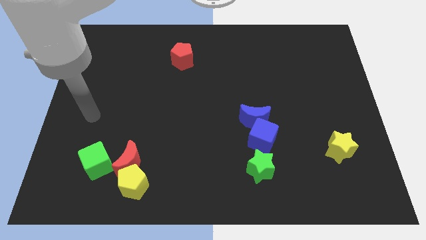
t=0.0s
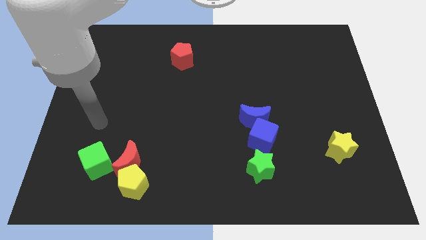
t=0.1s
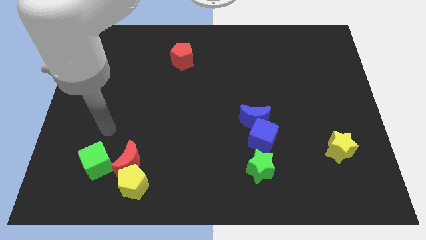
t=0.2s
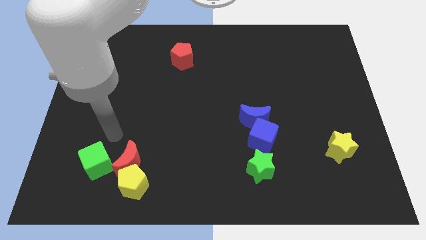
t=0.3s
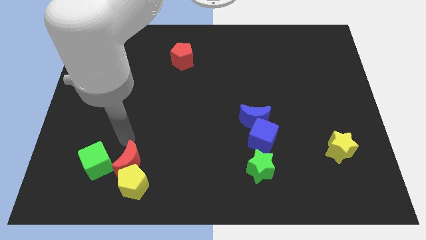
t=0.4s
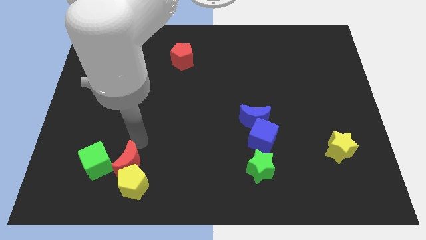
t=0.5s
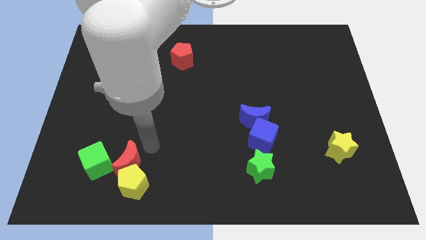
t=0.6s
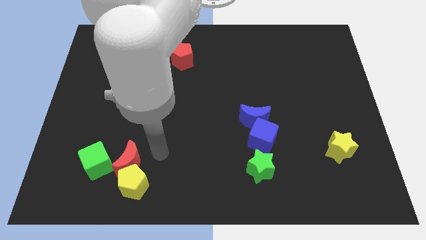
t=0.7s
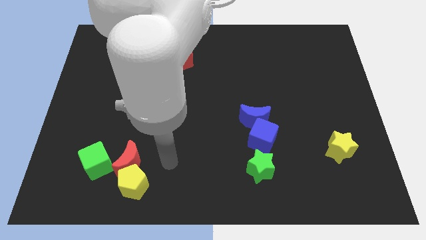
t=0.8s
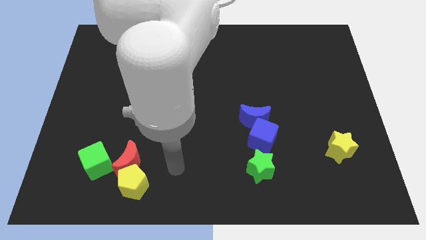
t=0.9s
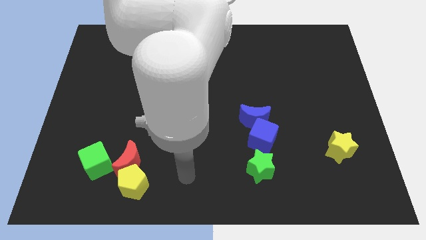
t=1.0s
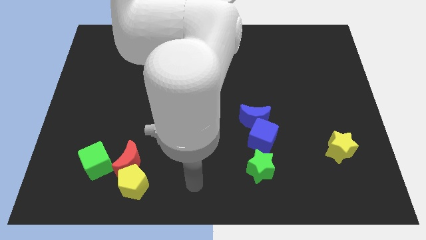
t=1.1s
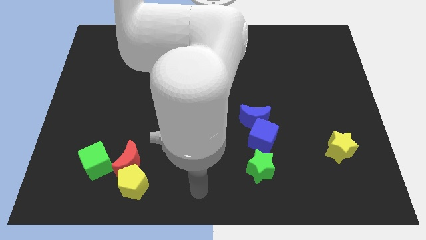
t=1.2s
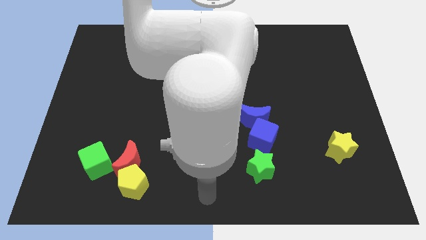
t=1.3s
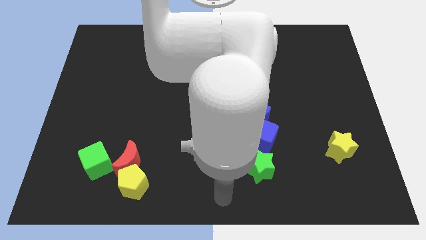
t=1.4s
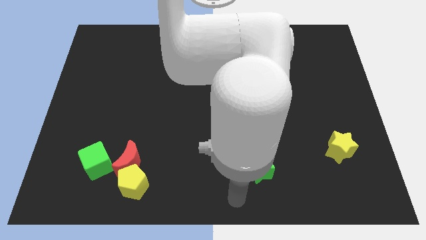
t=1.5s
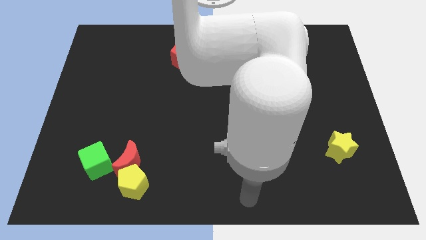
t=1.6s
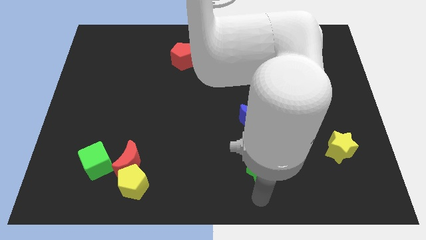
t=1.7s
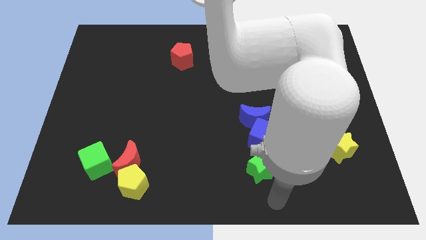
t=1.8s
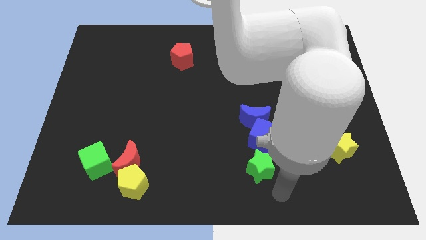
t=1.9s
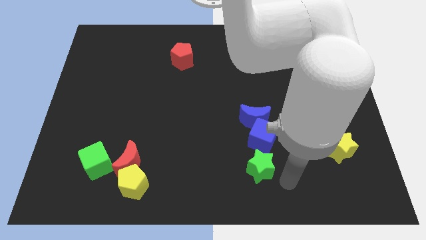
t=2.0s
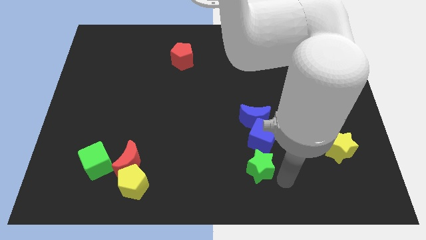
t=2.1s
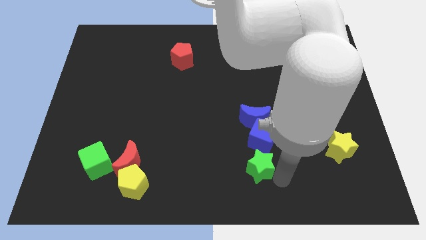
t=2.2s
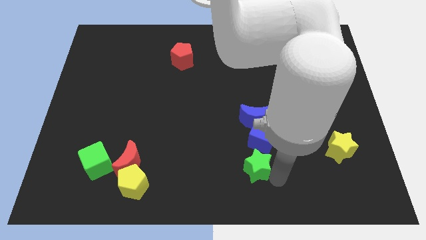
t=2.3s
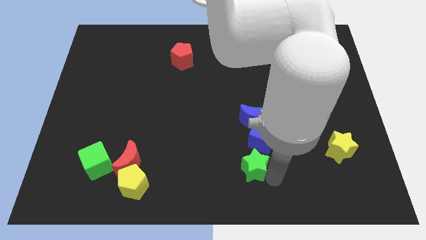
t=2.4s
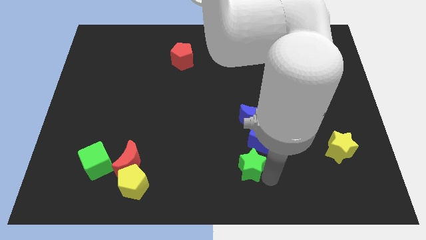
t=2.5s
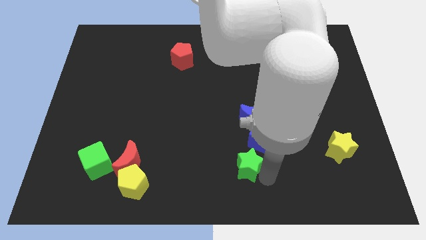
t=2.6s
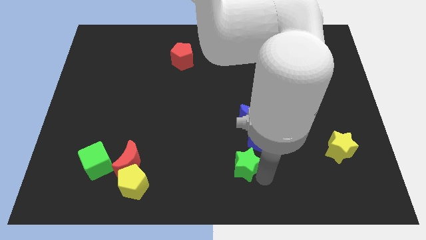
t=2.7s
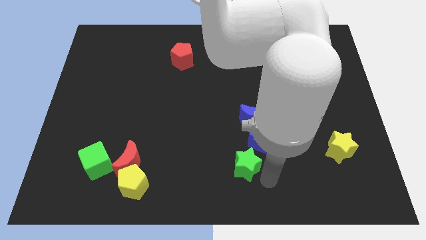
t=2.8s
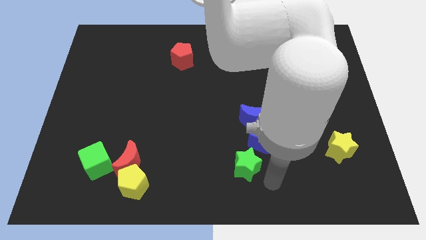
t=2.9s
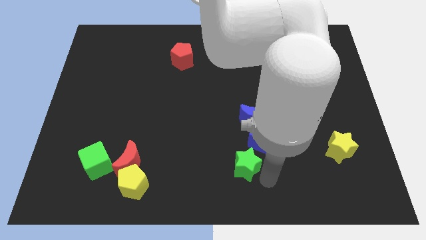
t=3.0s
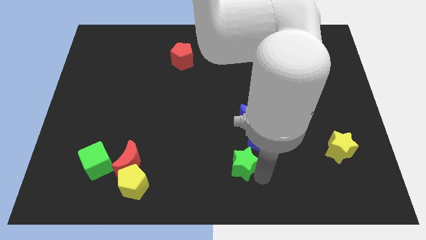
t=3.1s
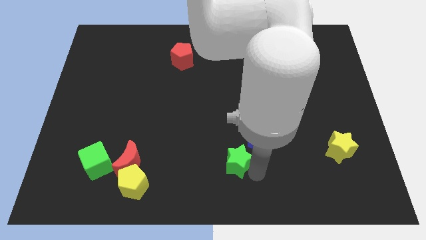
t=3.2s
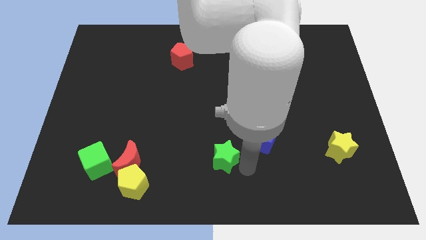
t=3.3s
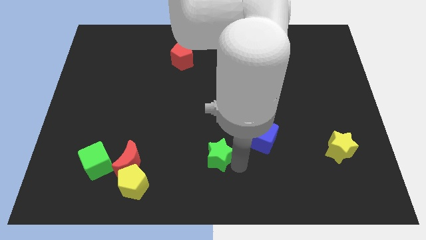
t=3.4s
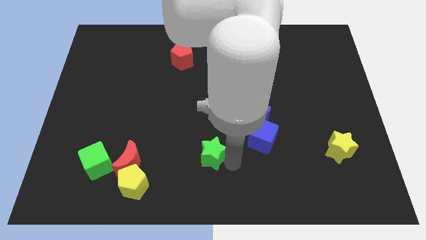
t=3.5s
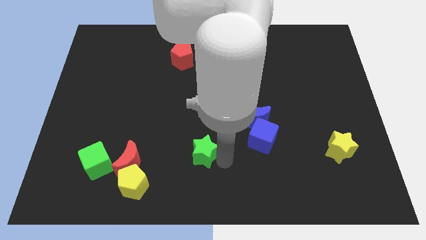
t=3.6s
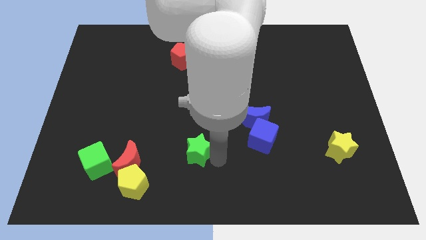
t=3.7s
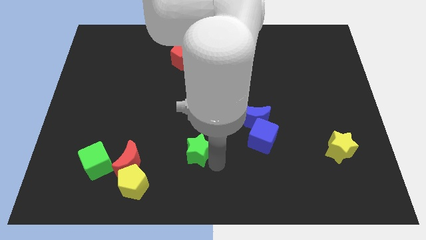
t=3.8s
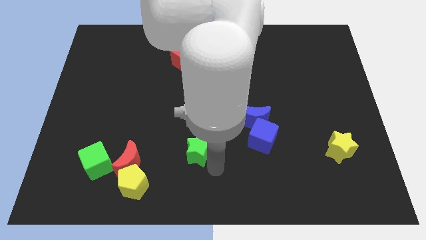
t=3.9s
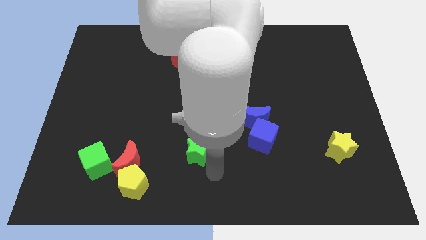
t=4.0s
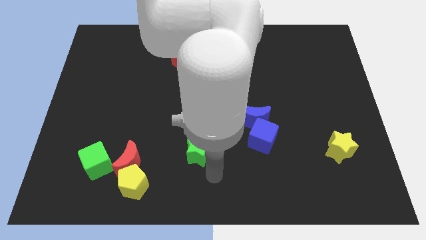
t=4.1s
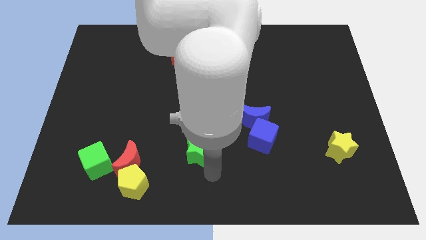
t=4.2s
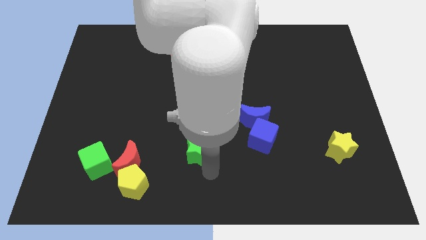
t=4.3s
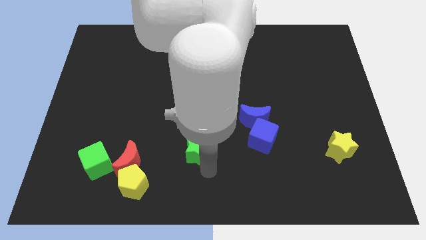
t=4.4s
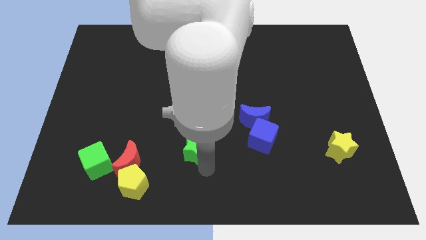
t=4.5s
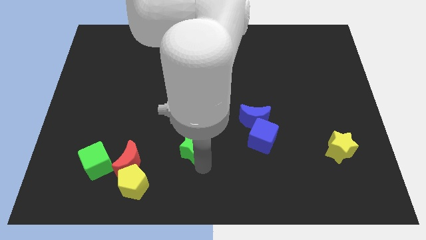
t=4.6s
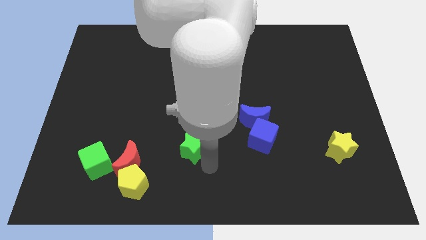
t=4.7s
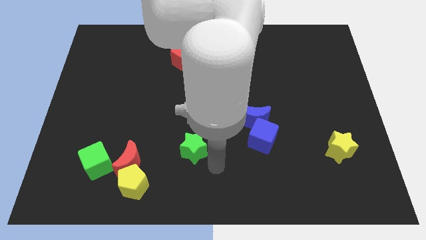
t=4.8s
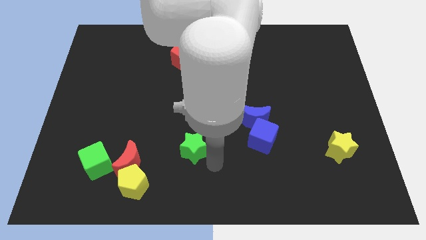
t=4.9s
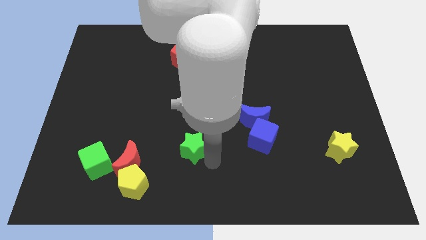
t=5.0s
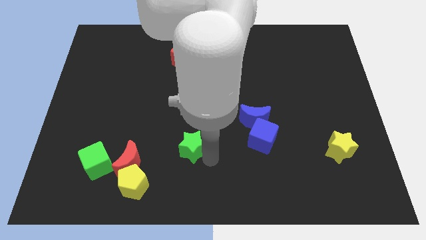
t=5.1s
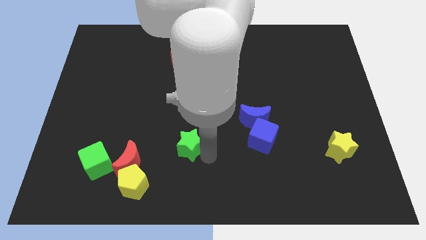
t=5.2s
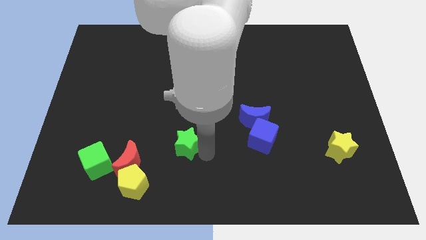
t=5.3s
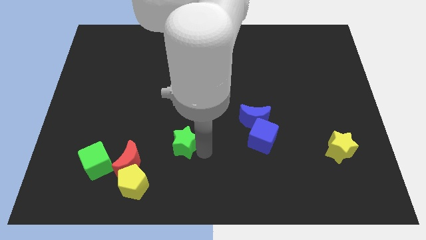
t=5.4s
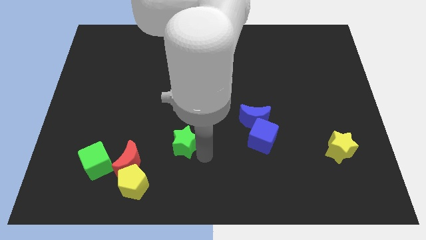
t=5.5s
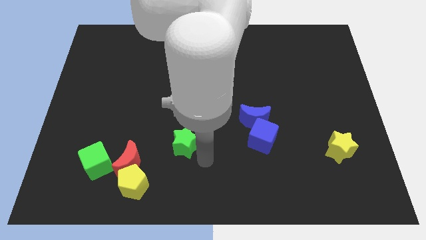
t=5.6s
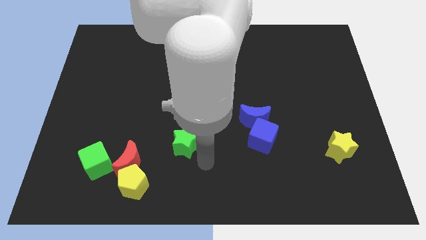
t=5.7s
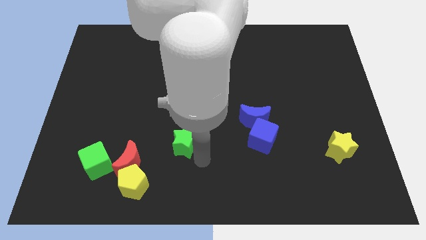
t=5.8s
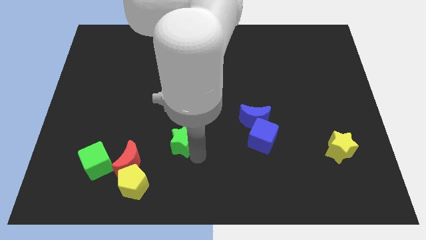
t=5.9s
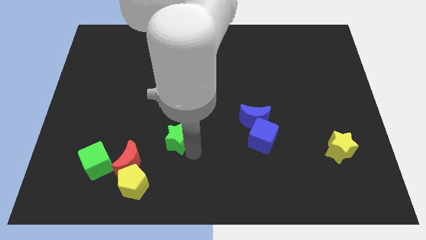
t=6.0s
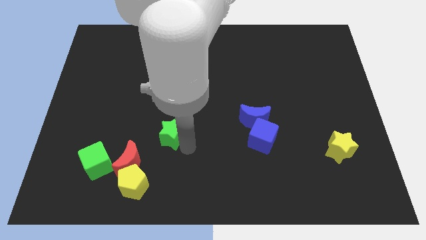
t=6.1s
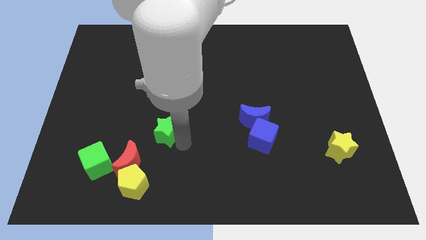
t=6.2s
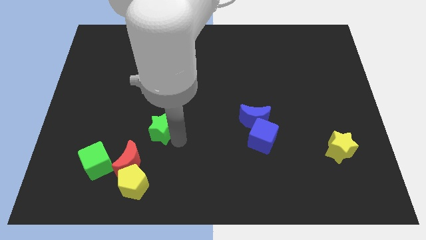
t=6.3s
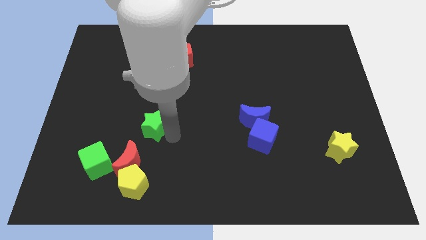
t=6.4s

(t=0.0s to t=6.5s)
push the green star above the red moon

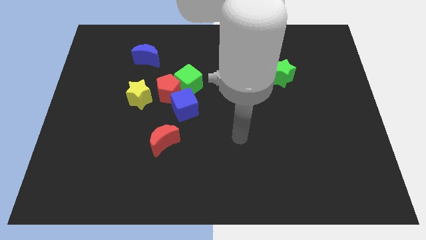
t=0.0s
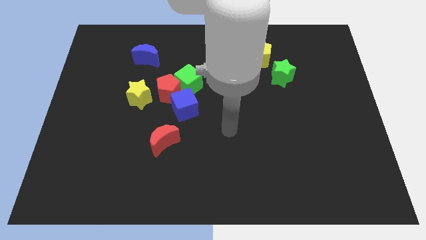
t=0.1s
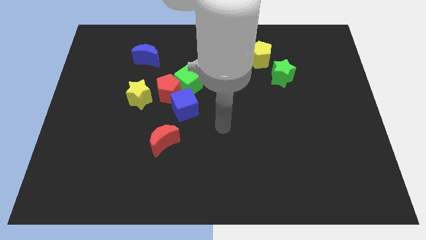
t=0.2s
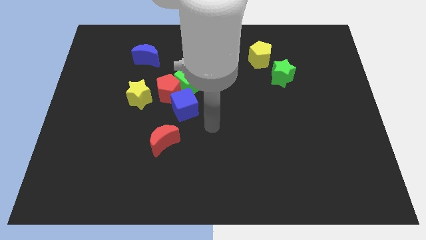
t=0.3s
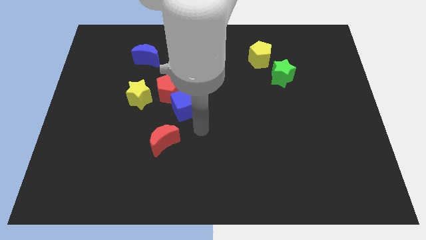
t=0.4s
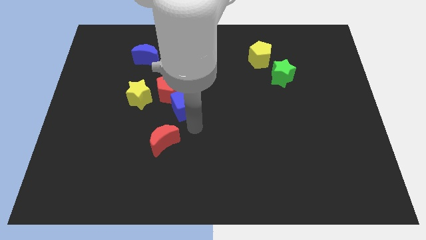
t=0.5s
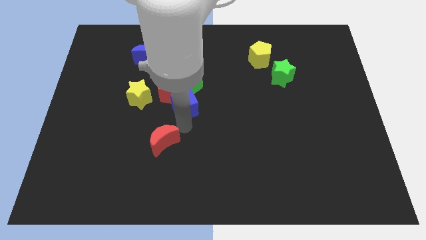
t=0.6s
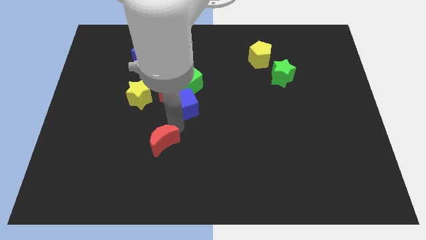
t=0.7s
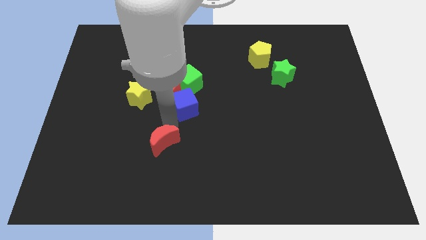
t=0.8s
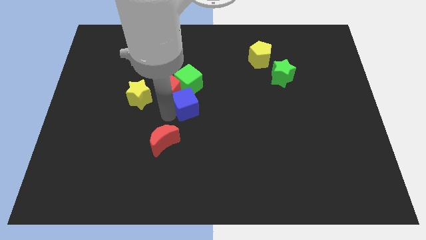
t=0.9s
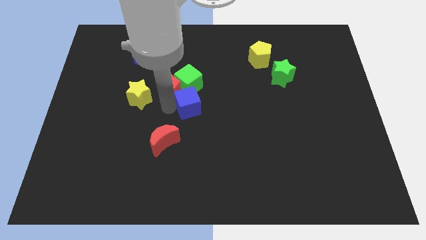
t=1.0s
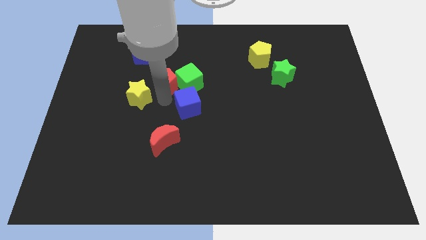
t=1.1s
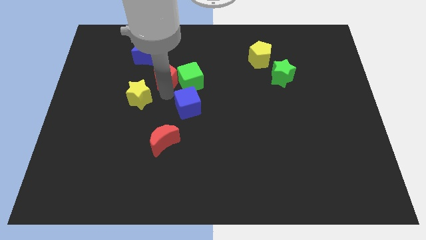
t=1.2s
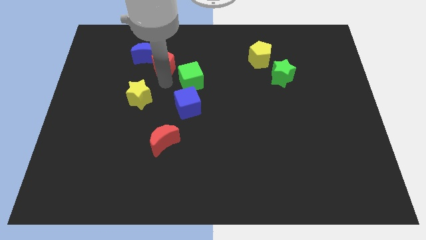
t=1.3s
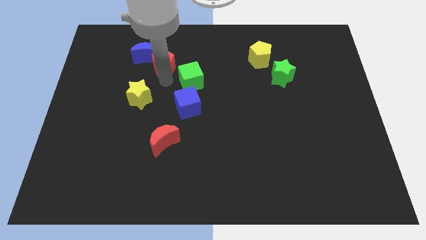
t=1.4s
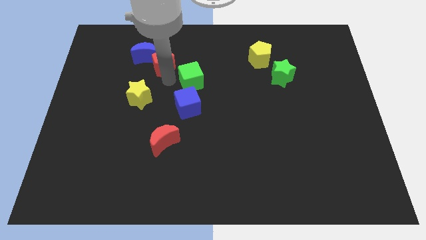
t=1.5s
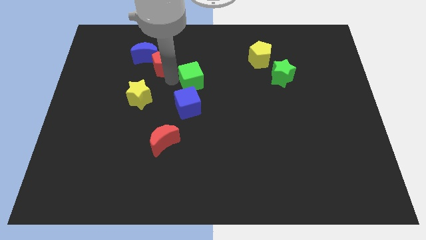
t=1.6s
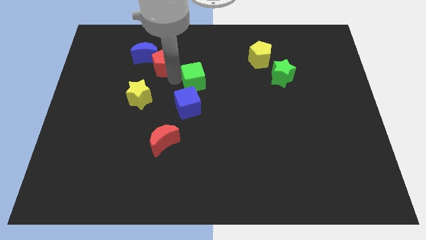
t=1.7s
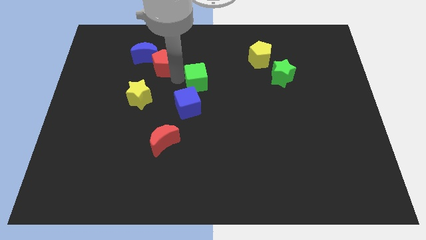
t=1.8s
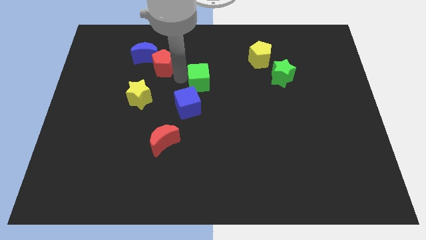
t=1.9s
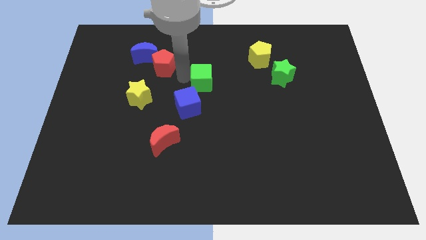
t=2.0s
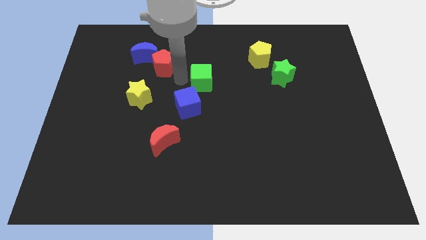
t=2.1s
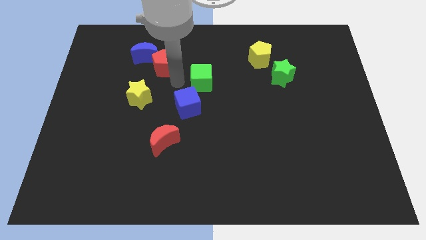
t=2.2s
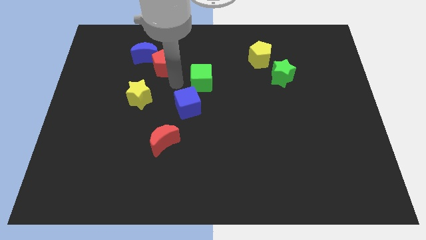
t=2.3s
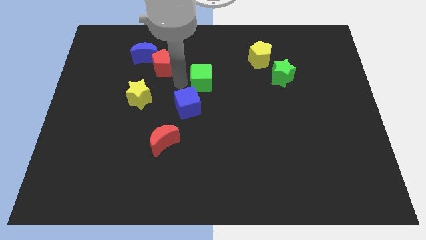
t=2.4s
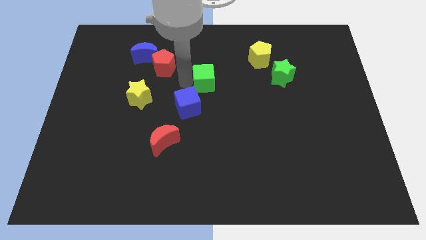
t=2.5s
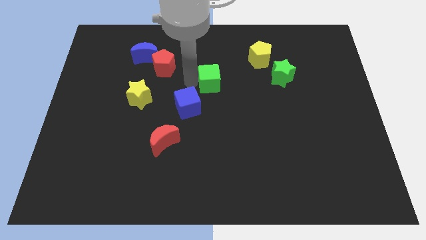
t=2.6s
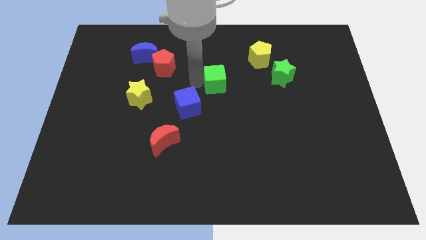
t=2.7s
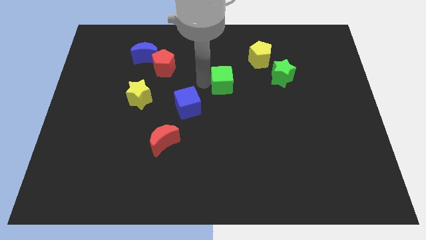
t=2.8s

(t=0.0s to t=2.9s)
slide the green cube left of the green star
